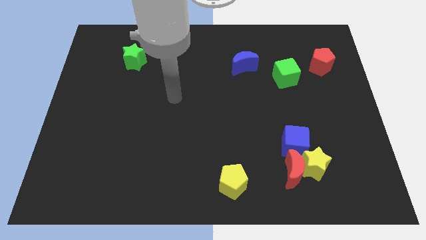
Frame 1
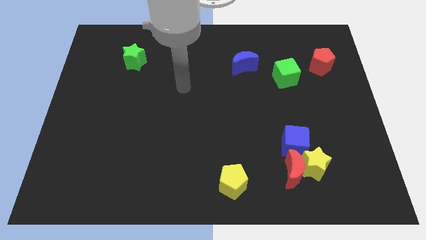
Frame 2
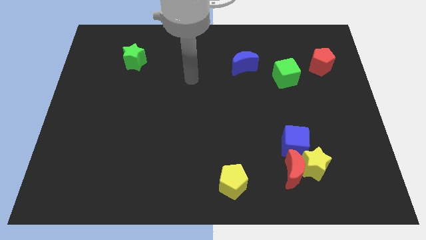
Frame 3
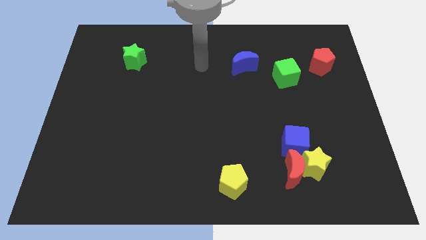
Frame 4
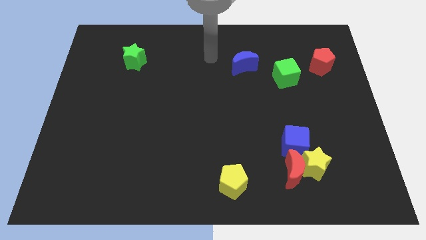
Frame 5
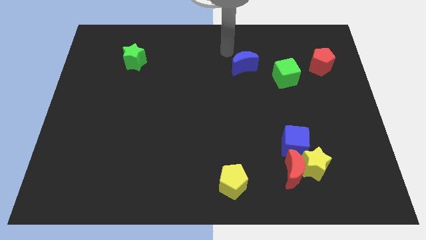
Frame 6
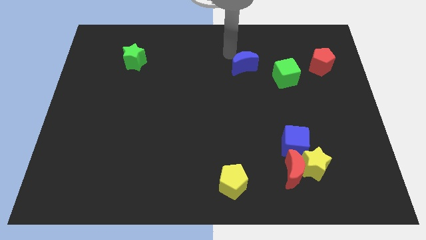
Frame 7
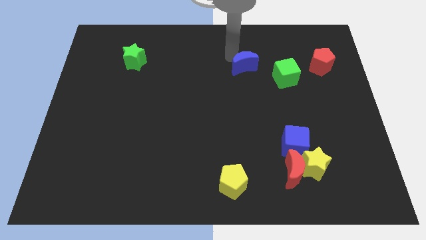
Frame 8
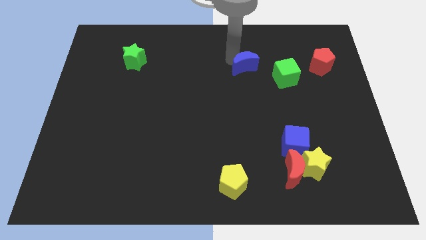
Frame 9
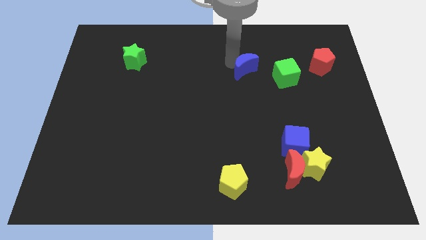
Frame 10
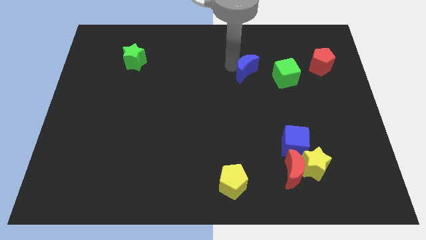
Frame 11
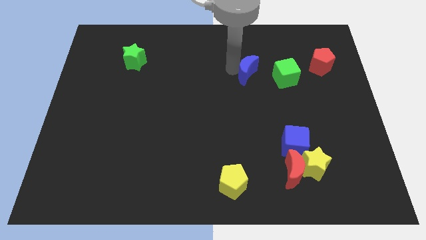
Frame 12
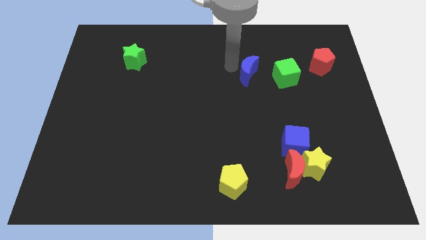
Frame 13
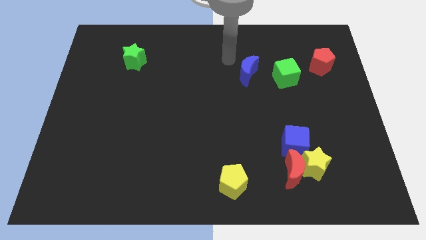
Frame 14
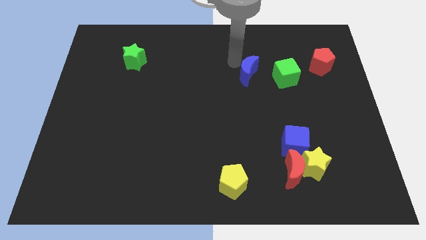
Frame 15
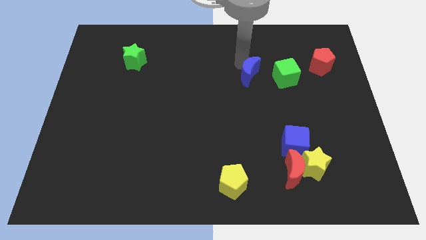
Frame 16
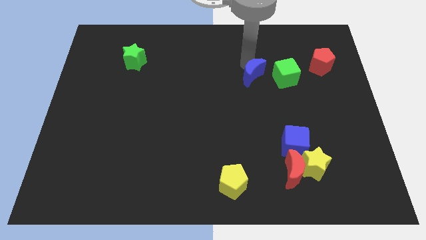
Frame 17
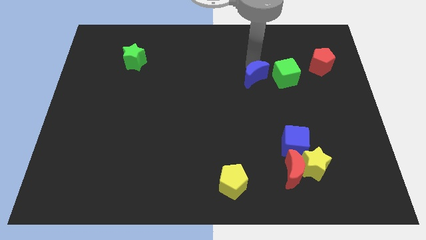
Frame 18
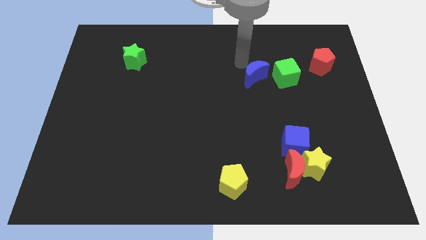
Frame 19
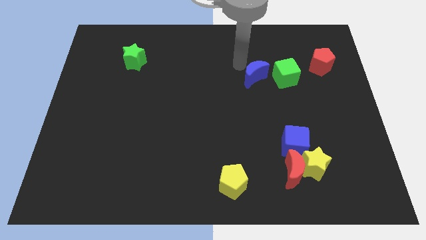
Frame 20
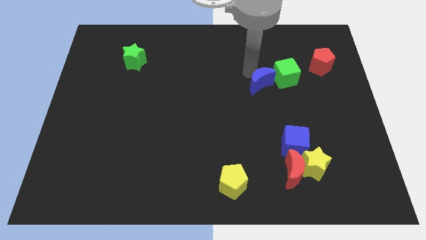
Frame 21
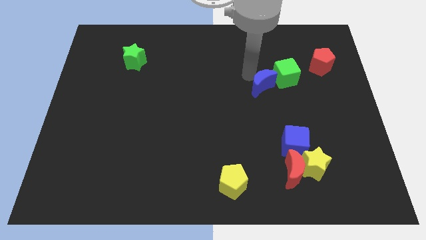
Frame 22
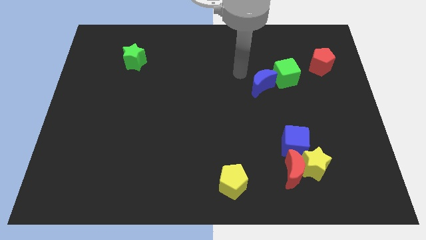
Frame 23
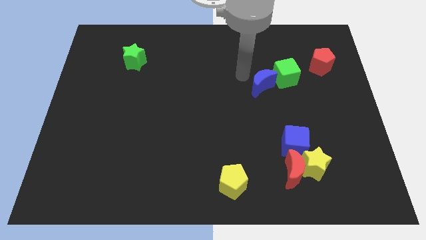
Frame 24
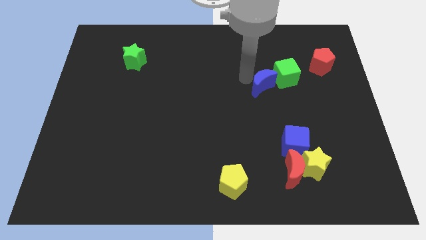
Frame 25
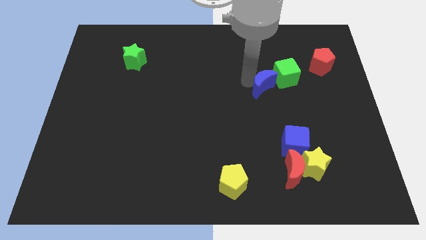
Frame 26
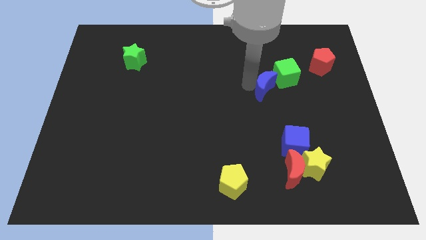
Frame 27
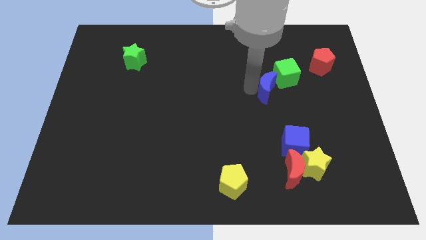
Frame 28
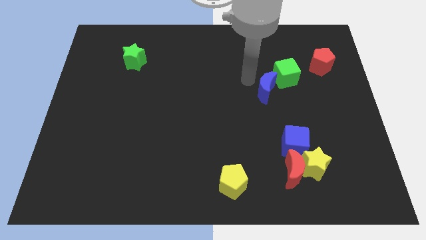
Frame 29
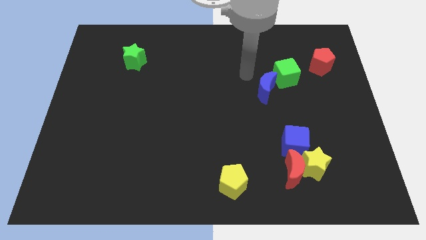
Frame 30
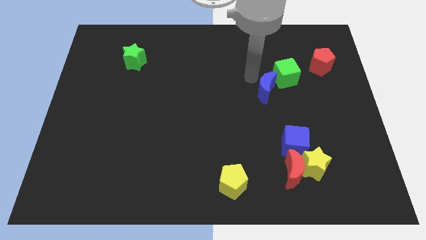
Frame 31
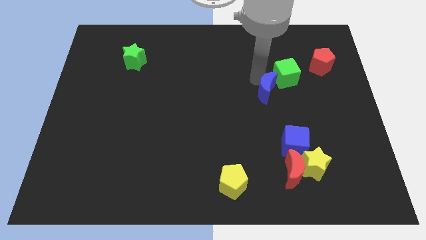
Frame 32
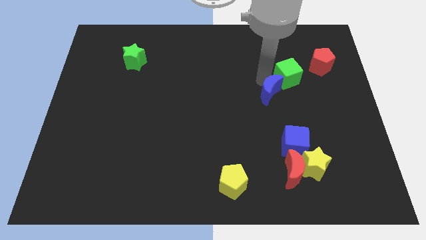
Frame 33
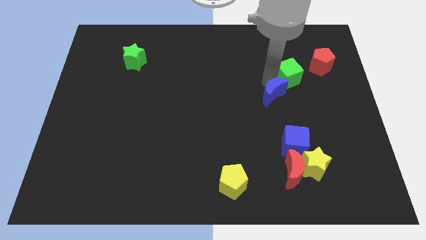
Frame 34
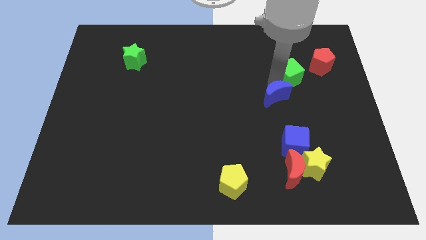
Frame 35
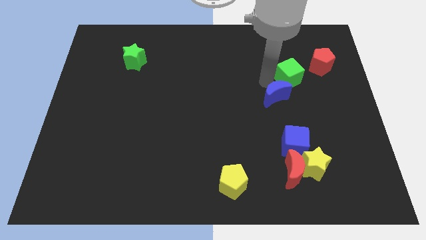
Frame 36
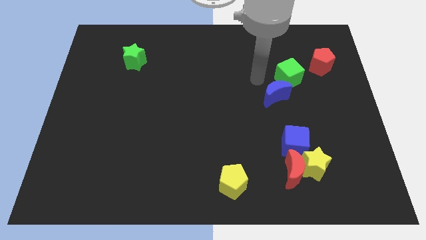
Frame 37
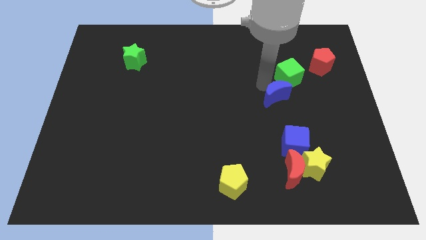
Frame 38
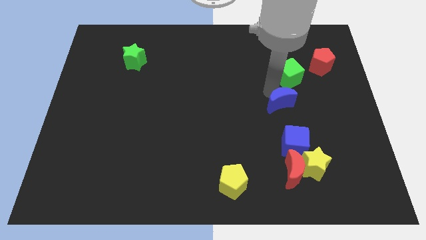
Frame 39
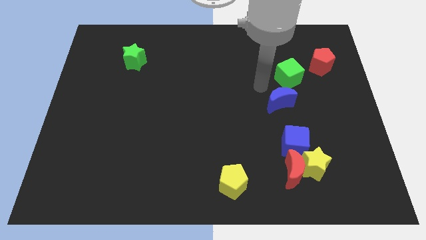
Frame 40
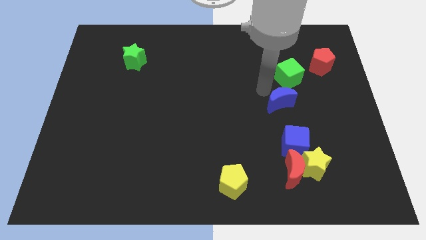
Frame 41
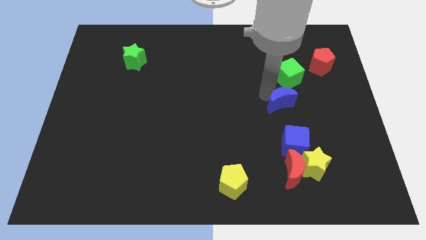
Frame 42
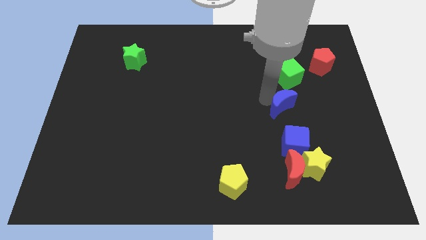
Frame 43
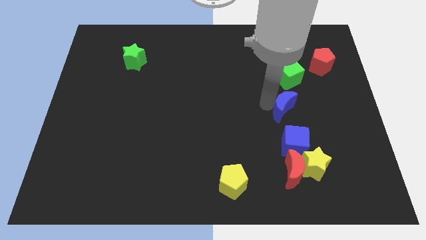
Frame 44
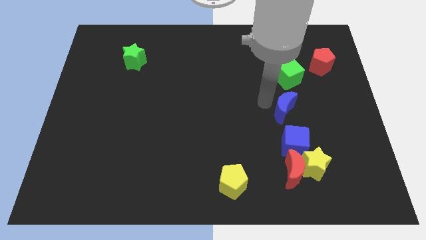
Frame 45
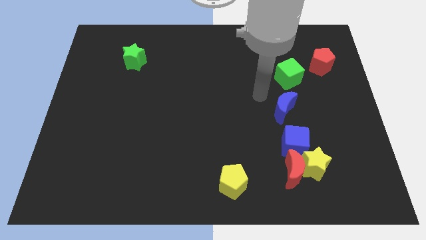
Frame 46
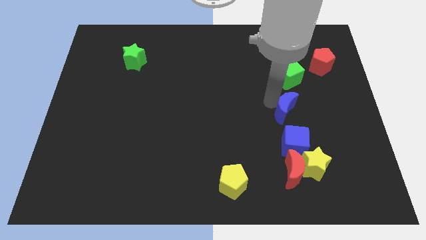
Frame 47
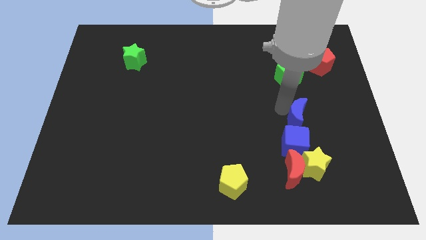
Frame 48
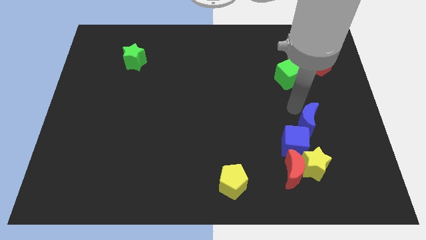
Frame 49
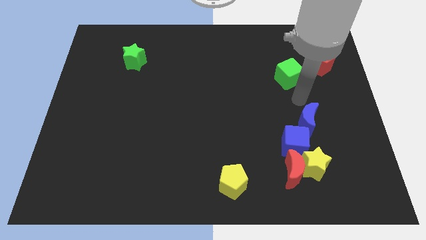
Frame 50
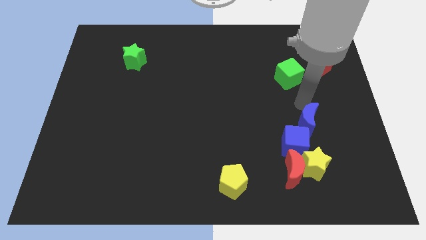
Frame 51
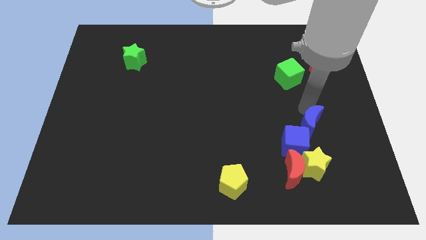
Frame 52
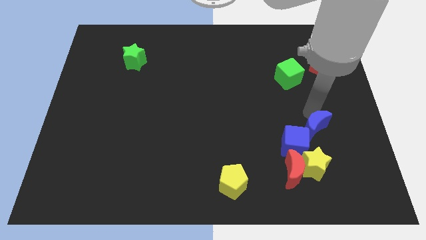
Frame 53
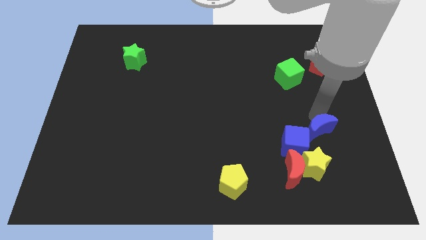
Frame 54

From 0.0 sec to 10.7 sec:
put the blue moon to the top right of the red moon

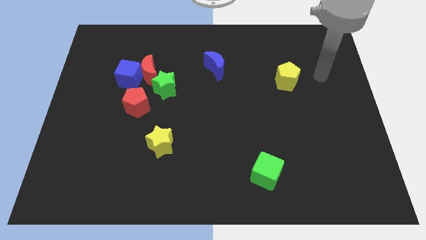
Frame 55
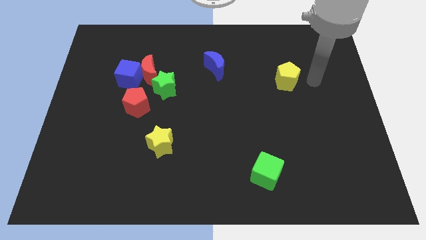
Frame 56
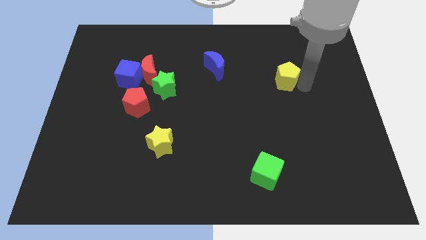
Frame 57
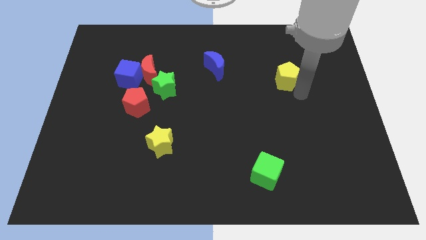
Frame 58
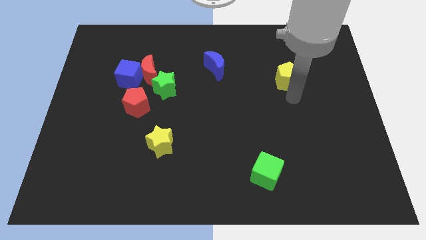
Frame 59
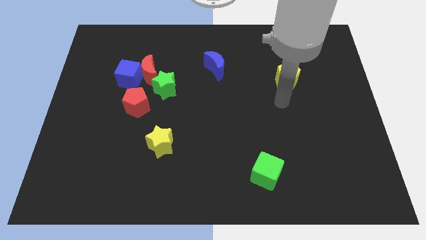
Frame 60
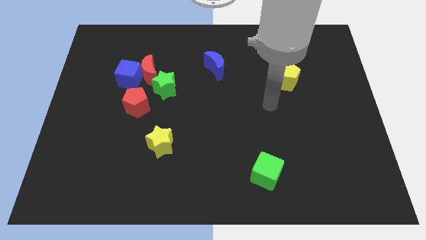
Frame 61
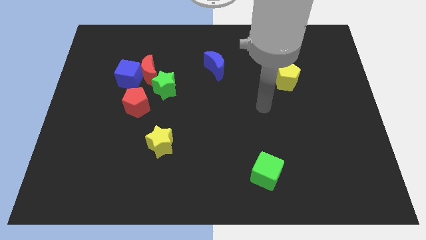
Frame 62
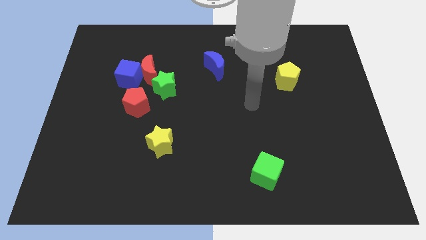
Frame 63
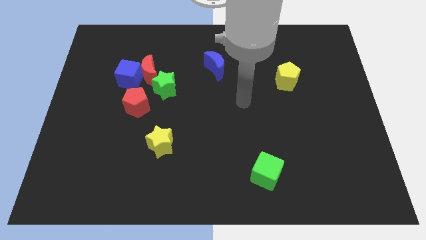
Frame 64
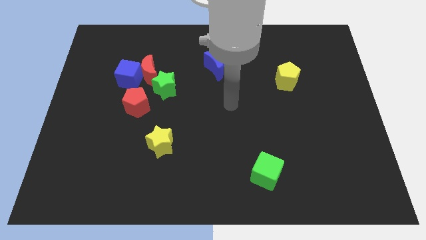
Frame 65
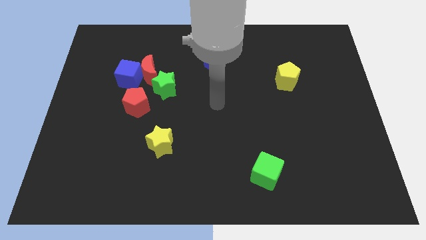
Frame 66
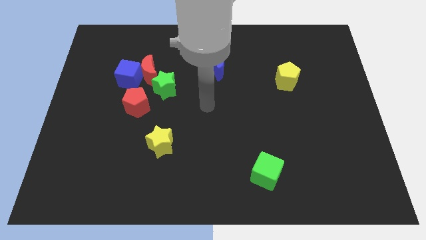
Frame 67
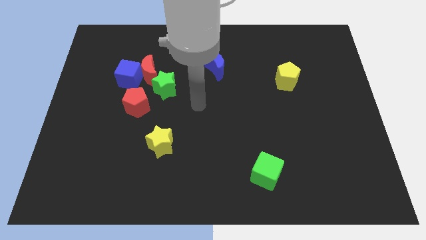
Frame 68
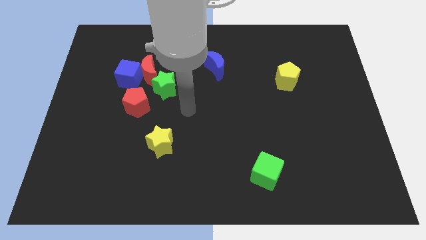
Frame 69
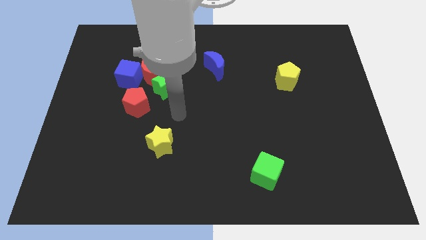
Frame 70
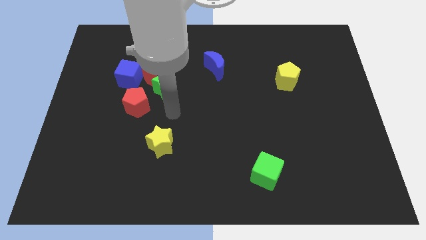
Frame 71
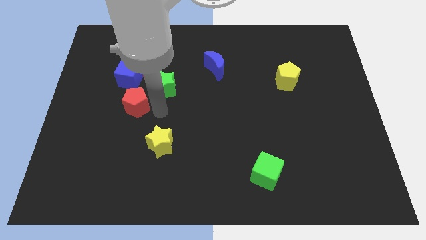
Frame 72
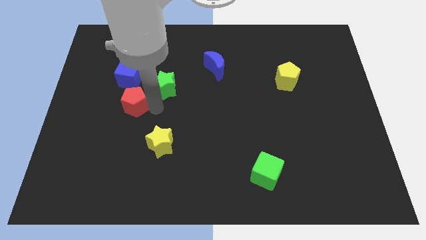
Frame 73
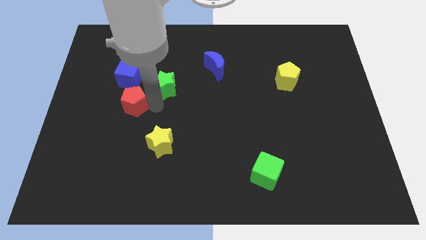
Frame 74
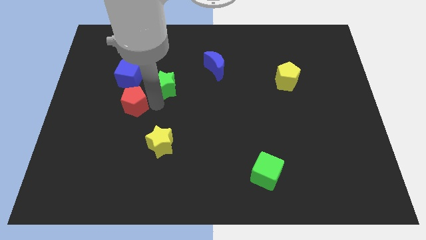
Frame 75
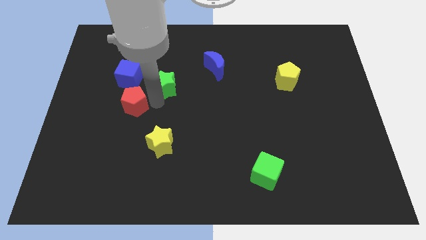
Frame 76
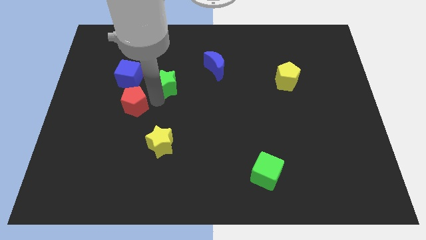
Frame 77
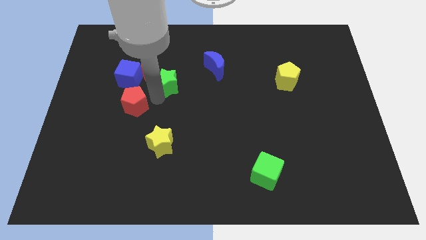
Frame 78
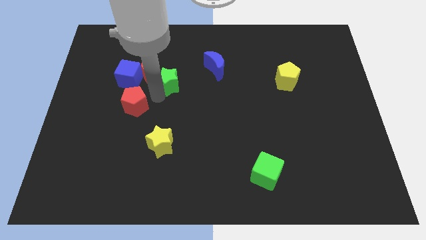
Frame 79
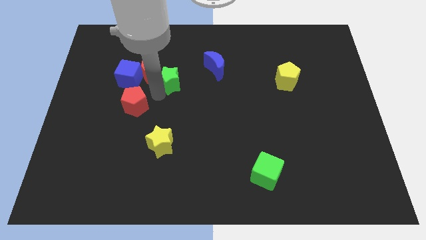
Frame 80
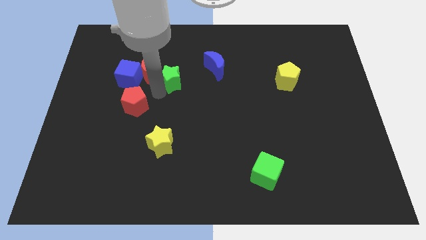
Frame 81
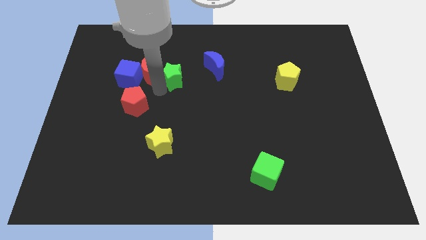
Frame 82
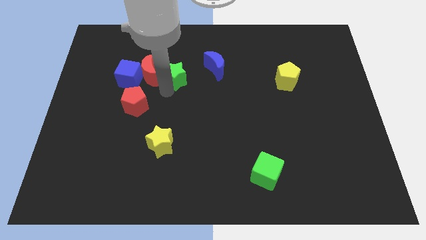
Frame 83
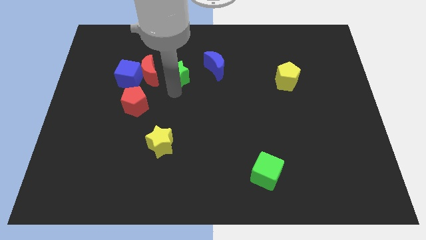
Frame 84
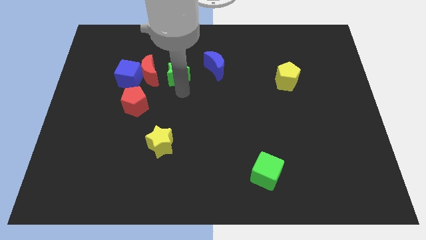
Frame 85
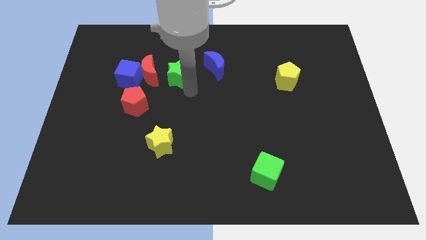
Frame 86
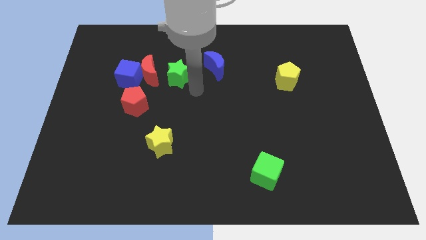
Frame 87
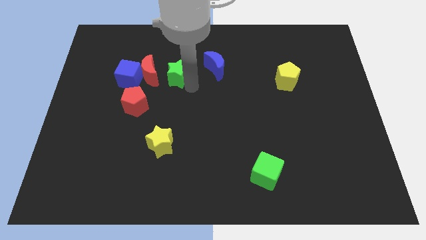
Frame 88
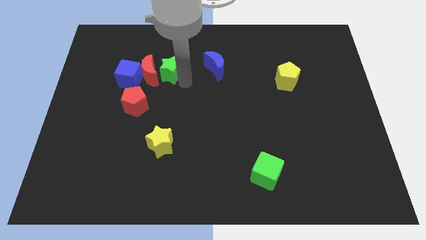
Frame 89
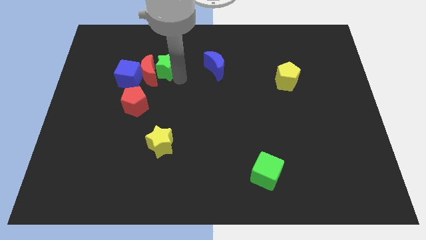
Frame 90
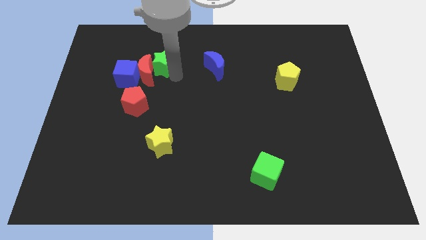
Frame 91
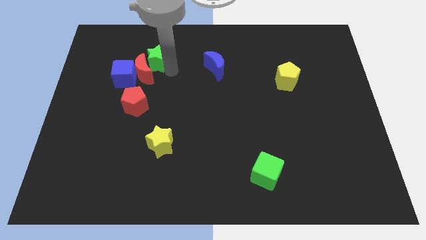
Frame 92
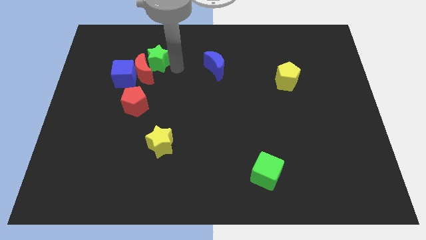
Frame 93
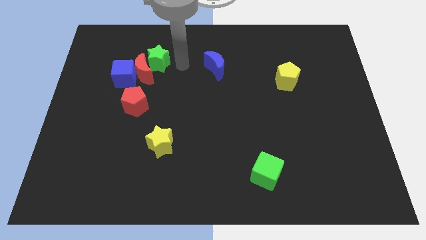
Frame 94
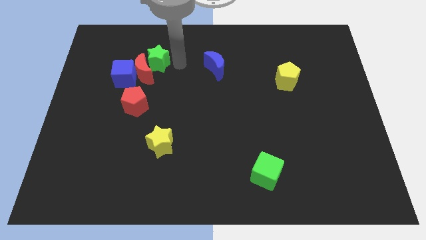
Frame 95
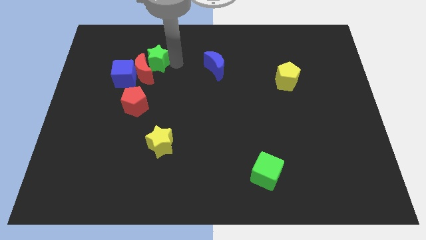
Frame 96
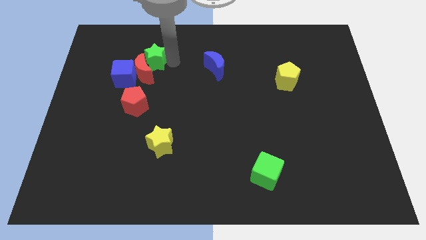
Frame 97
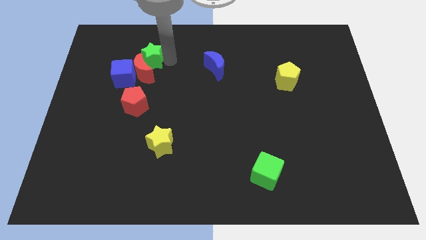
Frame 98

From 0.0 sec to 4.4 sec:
move the green star to the top left side of the red moon
